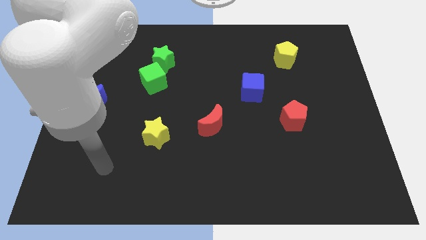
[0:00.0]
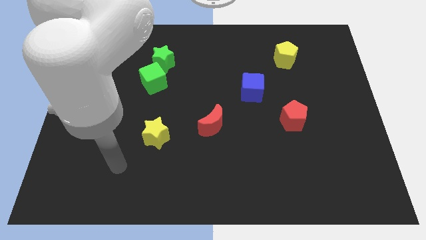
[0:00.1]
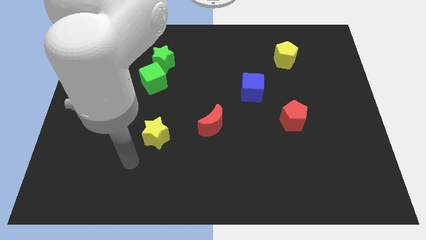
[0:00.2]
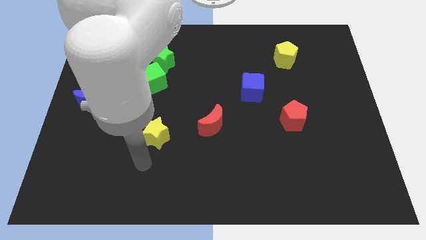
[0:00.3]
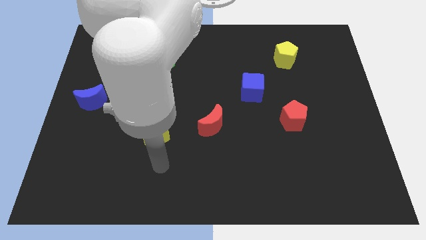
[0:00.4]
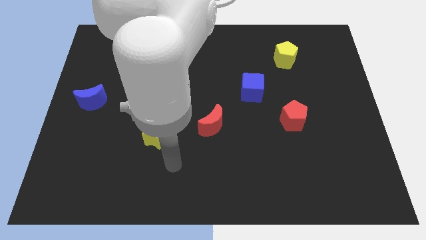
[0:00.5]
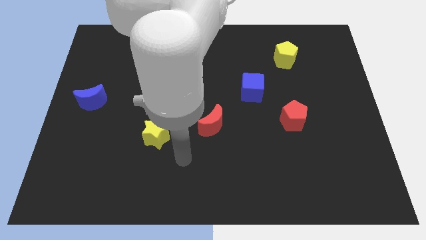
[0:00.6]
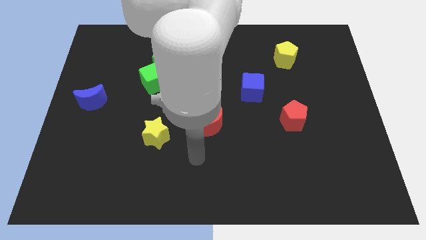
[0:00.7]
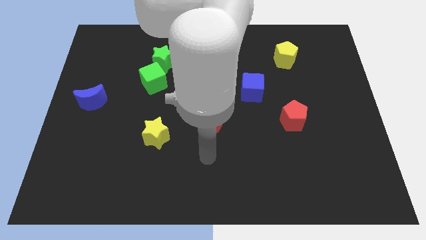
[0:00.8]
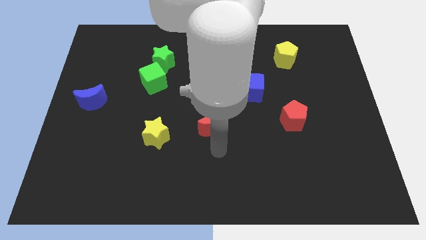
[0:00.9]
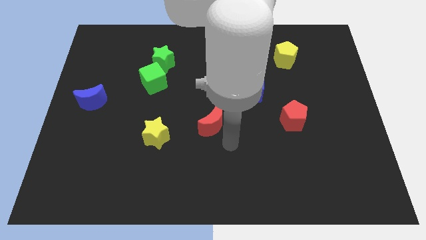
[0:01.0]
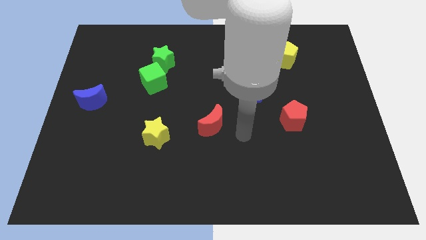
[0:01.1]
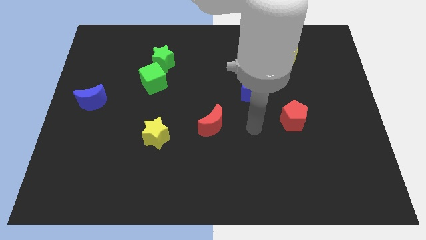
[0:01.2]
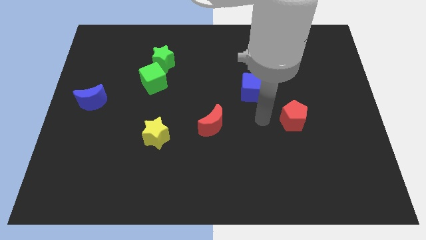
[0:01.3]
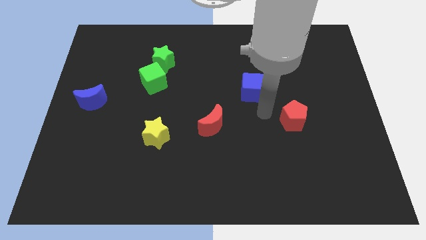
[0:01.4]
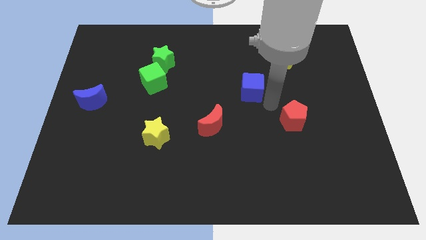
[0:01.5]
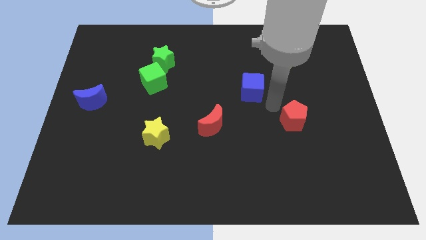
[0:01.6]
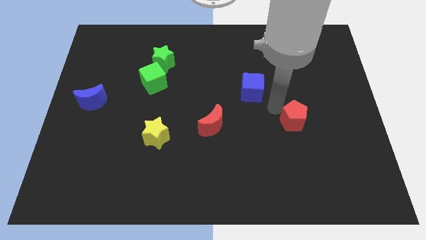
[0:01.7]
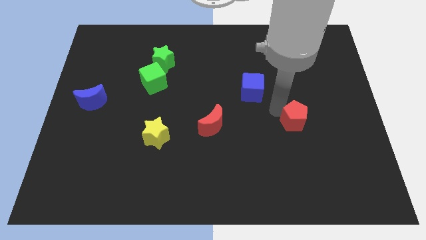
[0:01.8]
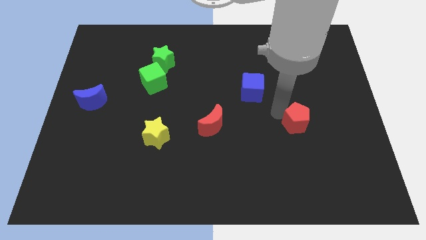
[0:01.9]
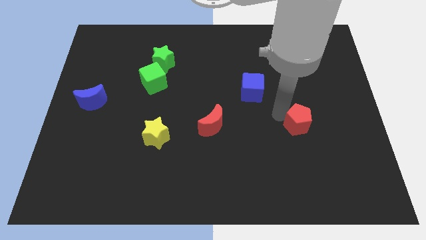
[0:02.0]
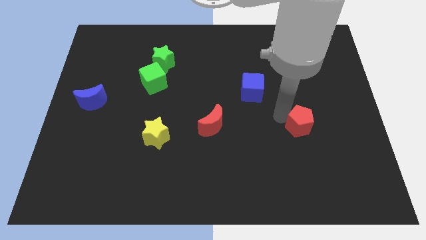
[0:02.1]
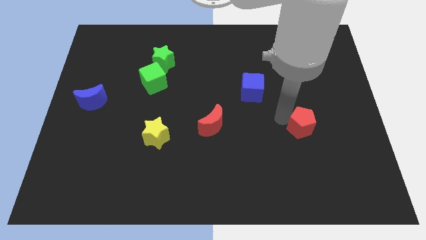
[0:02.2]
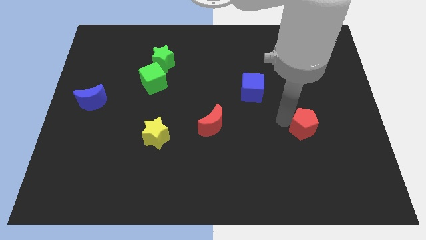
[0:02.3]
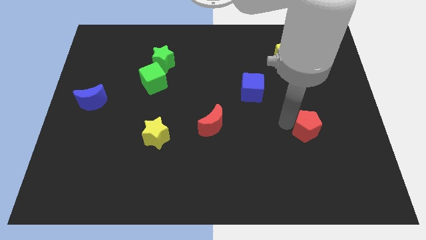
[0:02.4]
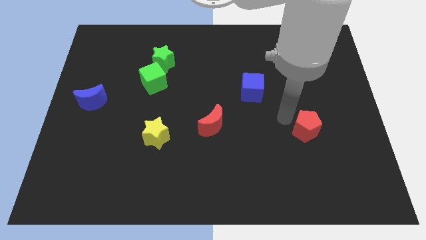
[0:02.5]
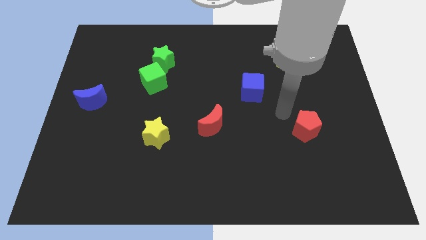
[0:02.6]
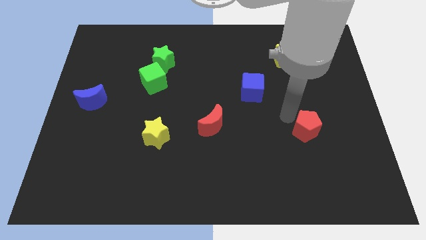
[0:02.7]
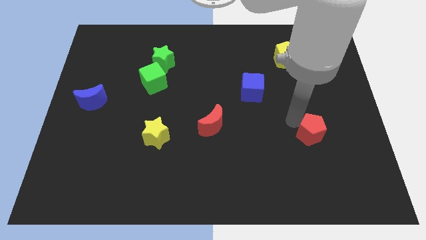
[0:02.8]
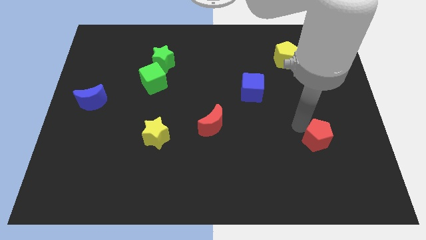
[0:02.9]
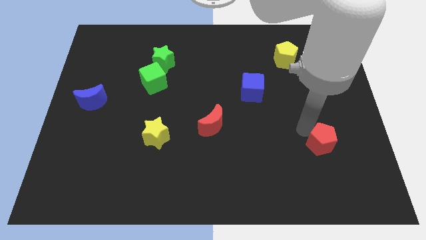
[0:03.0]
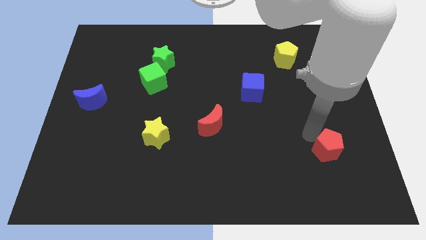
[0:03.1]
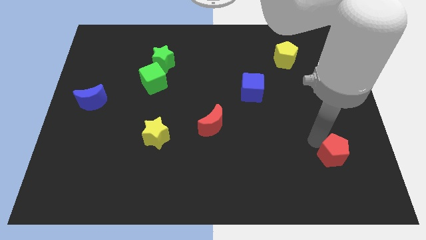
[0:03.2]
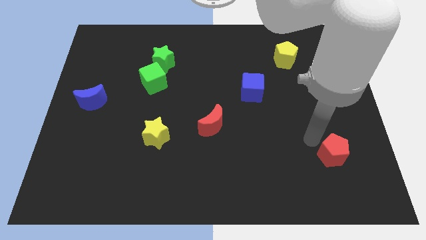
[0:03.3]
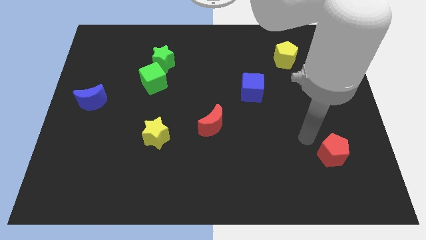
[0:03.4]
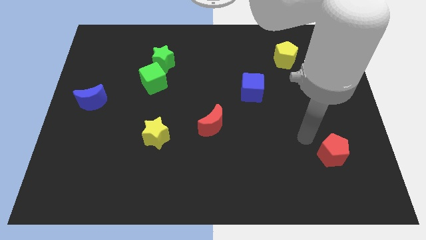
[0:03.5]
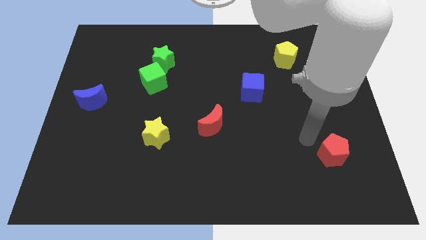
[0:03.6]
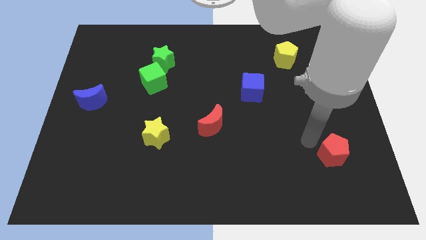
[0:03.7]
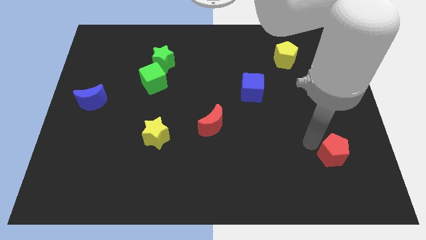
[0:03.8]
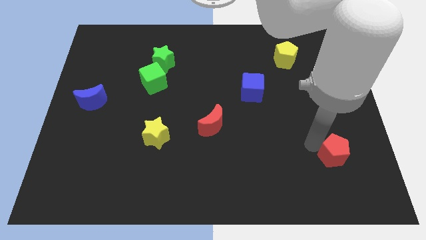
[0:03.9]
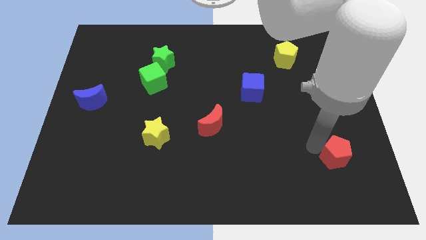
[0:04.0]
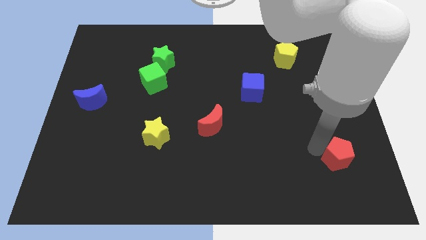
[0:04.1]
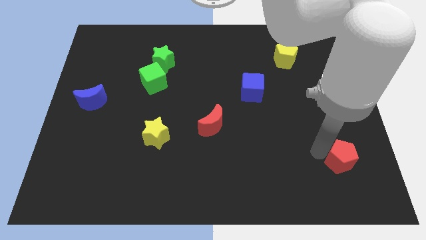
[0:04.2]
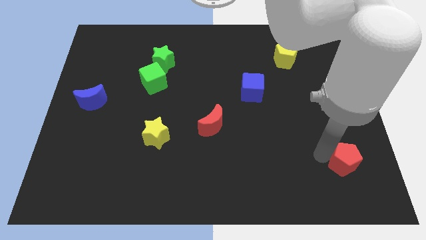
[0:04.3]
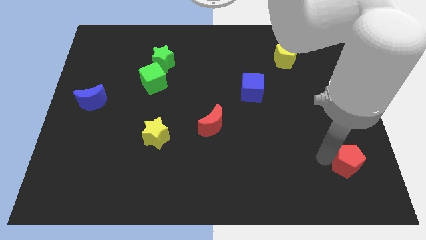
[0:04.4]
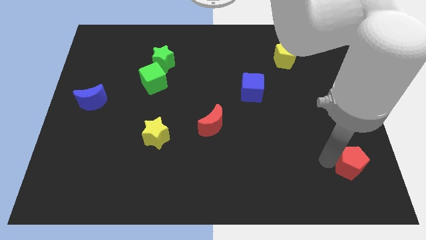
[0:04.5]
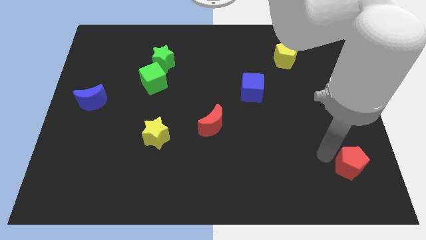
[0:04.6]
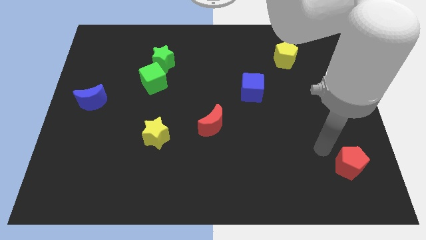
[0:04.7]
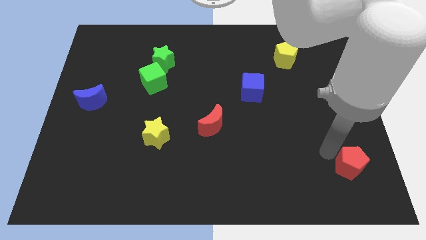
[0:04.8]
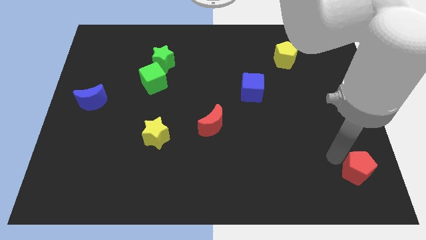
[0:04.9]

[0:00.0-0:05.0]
move the red pentagon to the bottom right corner

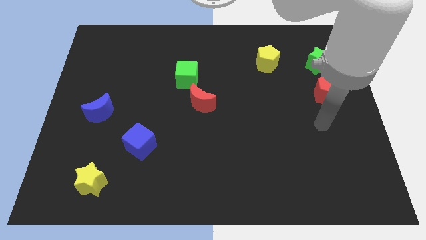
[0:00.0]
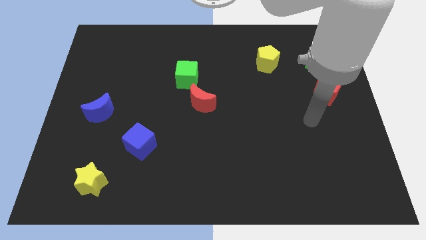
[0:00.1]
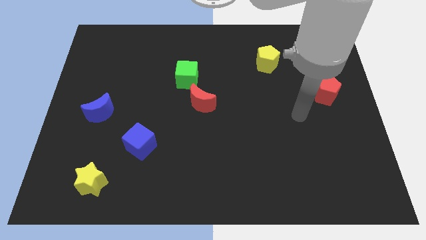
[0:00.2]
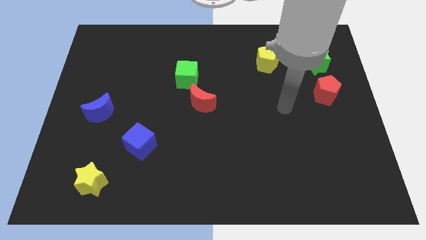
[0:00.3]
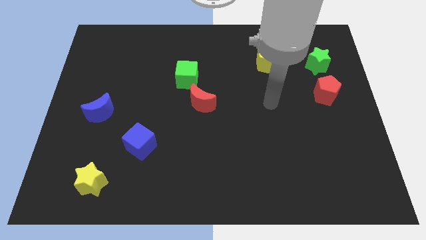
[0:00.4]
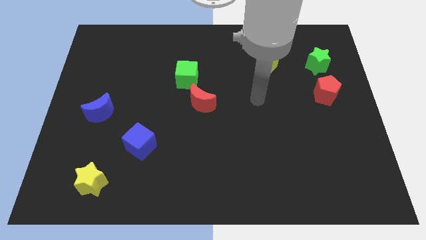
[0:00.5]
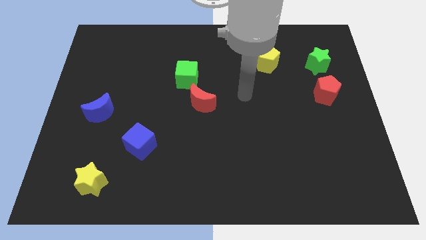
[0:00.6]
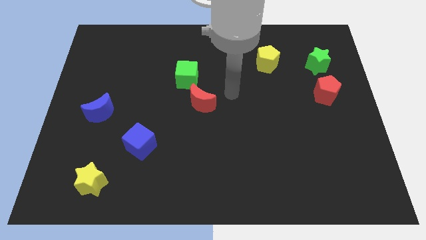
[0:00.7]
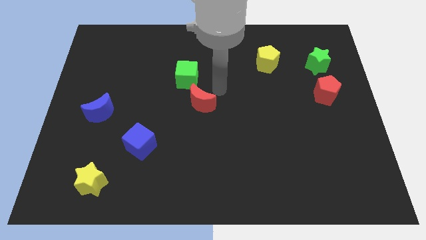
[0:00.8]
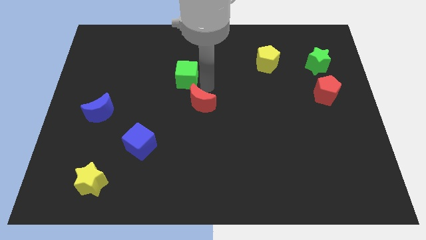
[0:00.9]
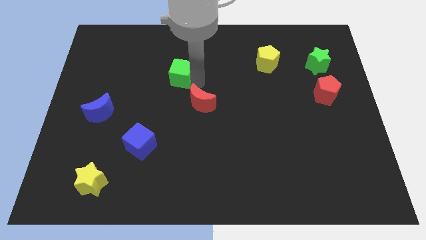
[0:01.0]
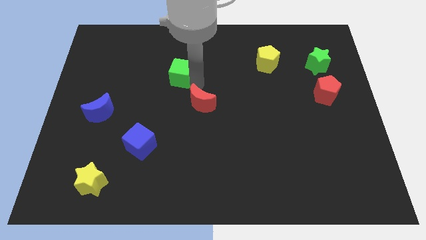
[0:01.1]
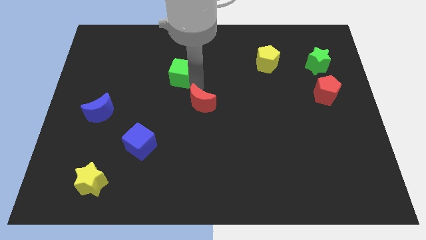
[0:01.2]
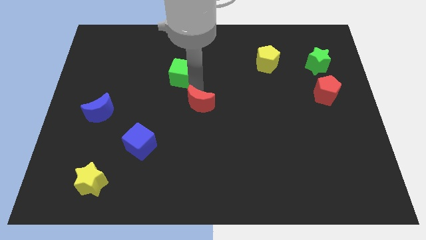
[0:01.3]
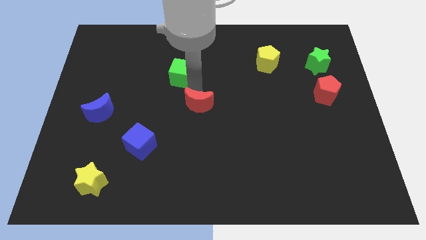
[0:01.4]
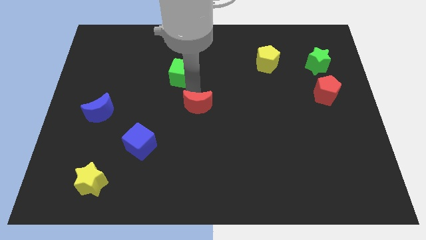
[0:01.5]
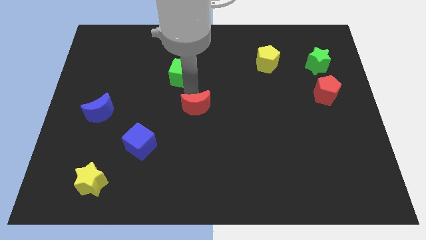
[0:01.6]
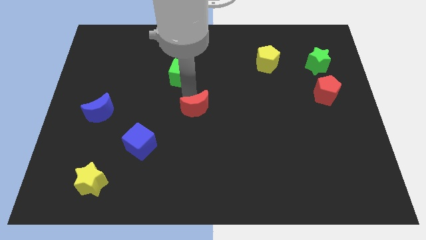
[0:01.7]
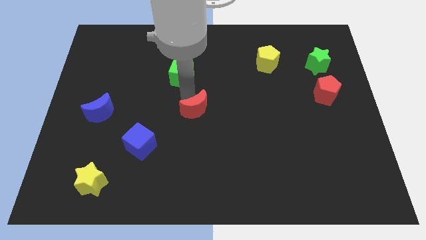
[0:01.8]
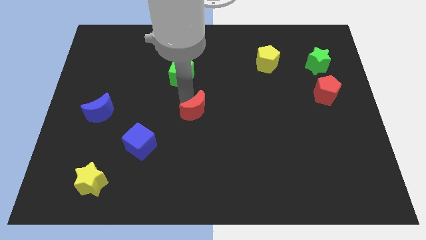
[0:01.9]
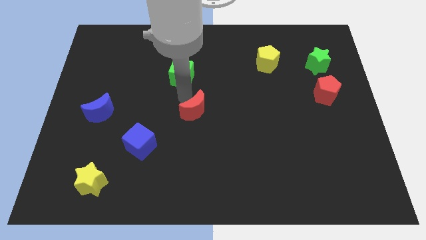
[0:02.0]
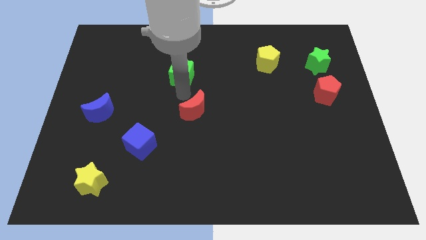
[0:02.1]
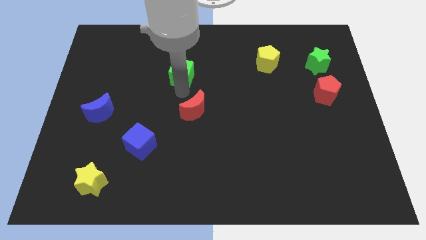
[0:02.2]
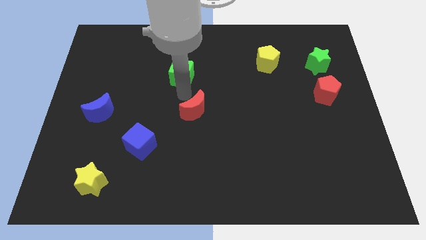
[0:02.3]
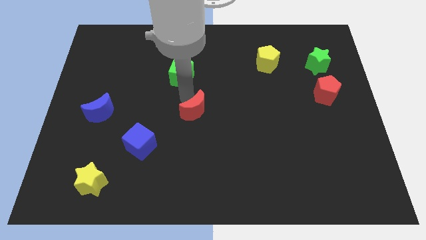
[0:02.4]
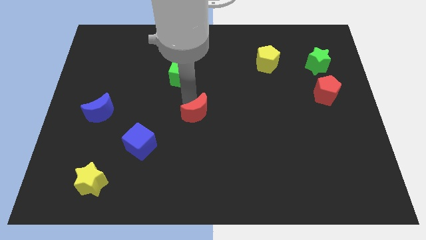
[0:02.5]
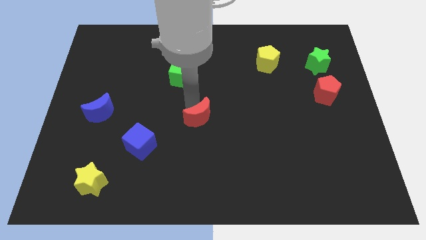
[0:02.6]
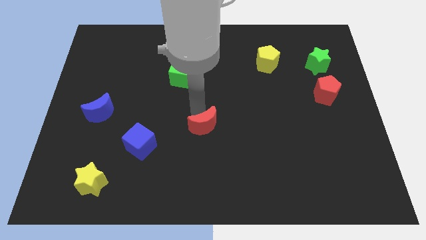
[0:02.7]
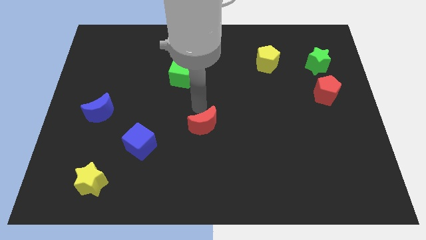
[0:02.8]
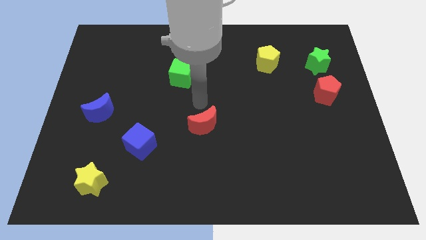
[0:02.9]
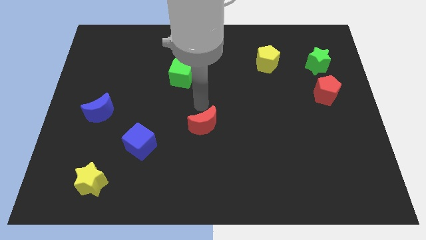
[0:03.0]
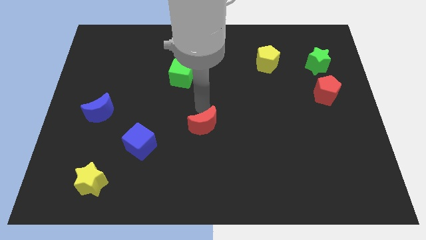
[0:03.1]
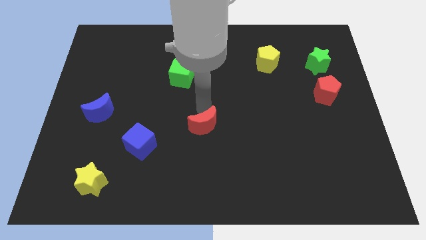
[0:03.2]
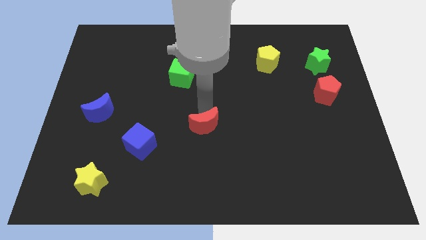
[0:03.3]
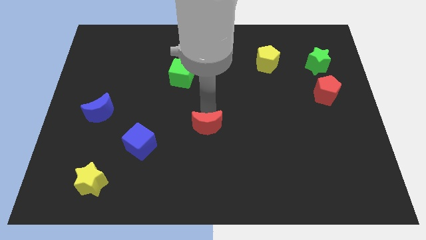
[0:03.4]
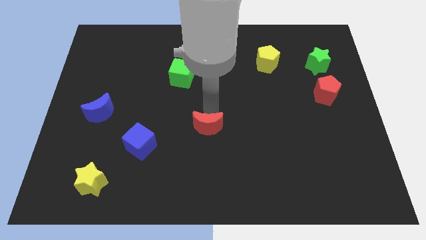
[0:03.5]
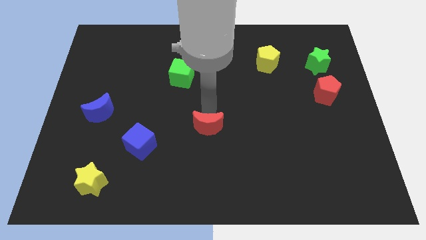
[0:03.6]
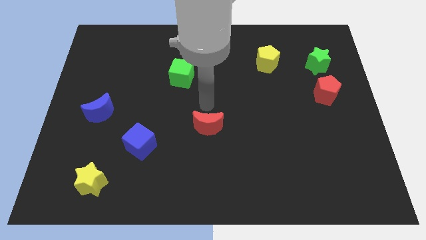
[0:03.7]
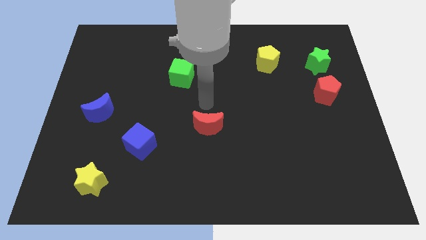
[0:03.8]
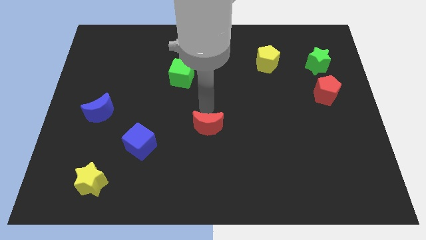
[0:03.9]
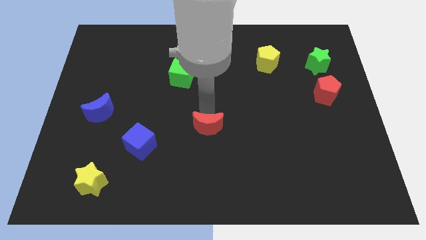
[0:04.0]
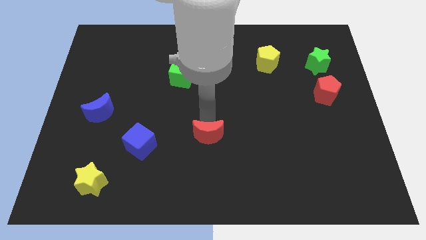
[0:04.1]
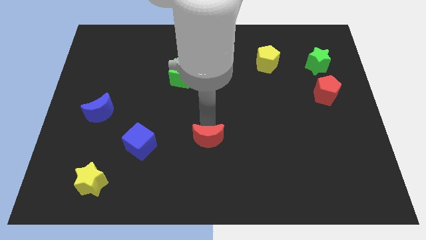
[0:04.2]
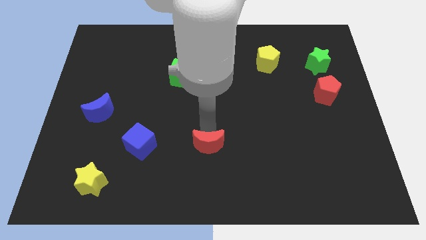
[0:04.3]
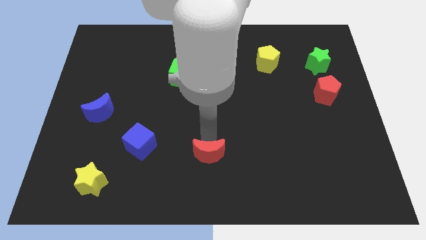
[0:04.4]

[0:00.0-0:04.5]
move the red moon to the bottom
